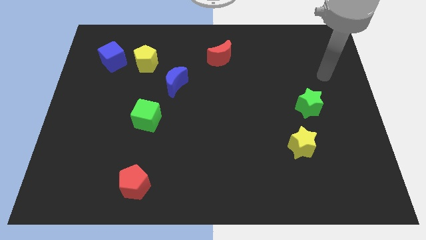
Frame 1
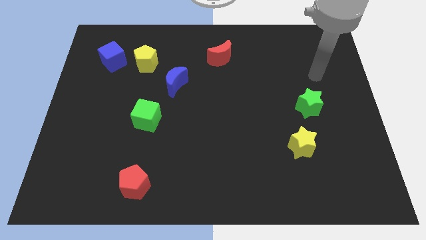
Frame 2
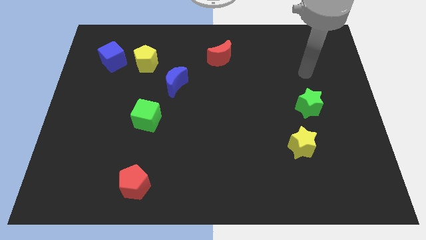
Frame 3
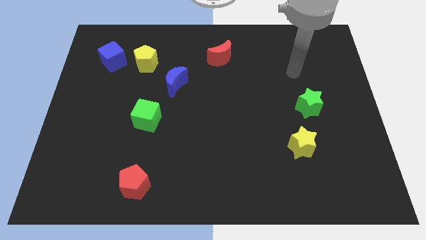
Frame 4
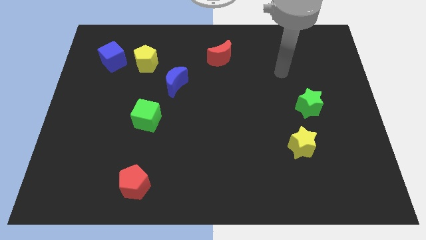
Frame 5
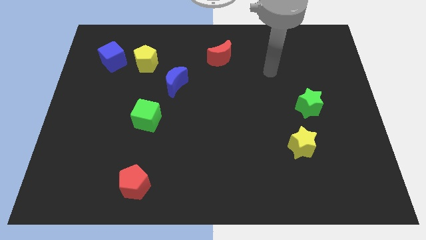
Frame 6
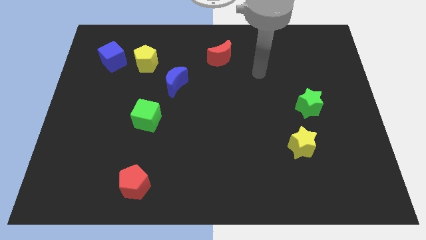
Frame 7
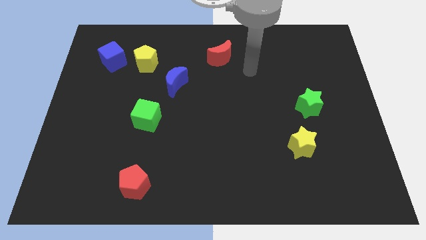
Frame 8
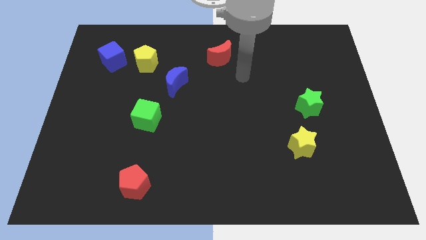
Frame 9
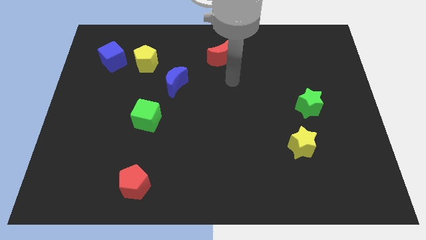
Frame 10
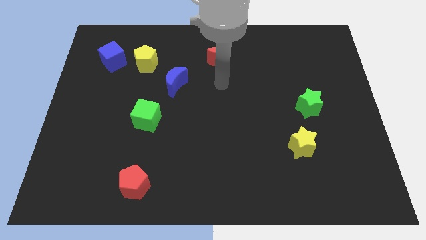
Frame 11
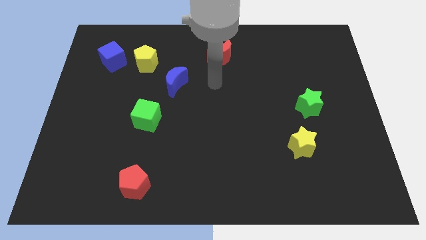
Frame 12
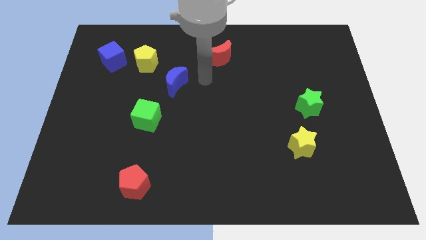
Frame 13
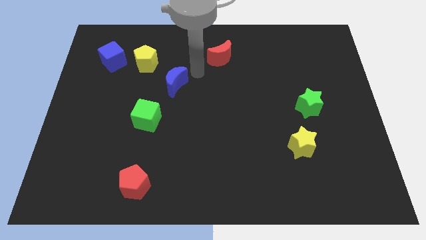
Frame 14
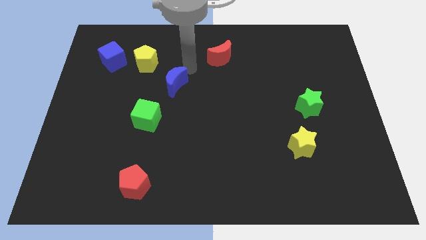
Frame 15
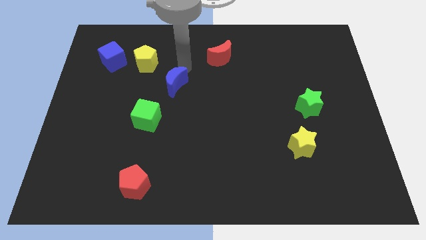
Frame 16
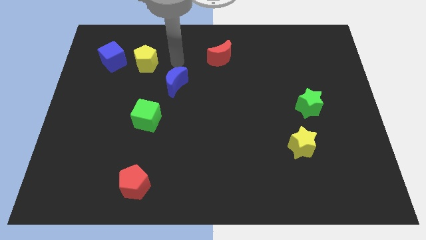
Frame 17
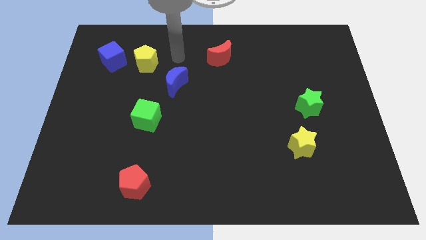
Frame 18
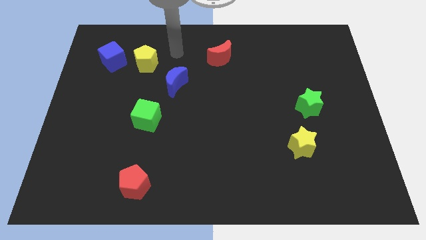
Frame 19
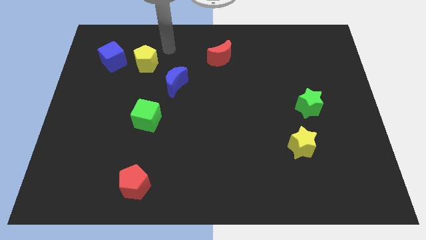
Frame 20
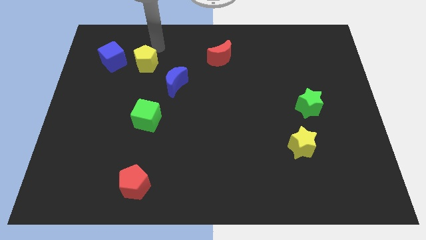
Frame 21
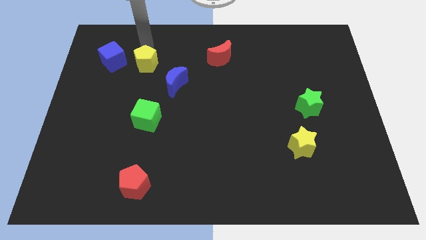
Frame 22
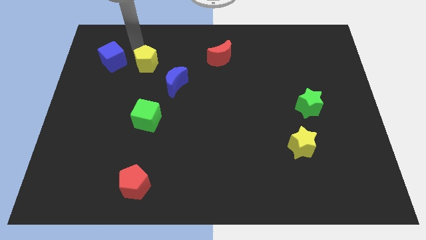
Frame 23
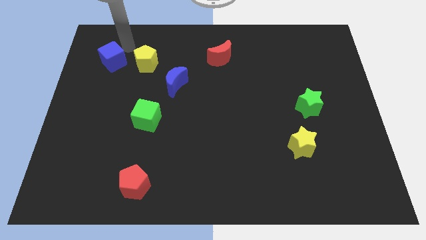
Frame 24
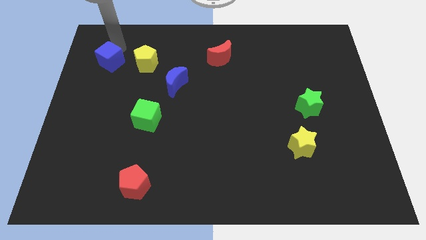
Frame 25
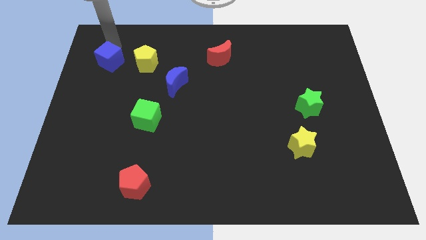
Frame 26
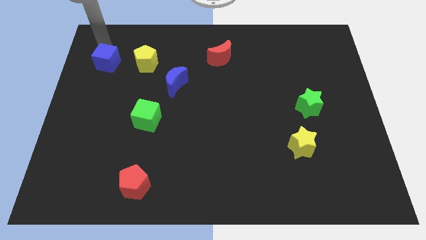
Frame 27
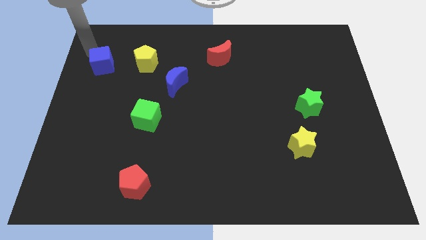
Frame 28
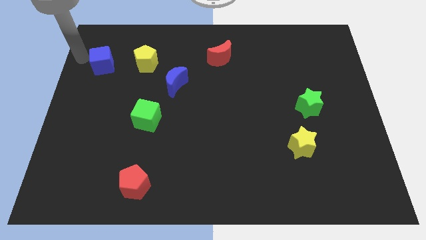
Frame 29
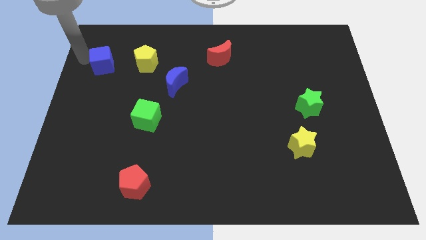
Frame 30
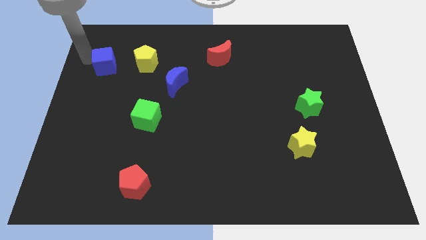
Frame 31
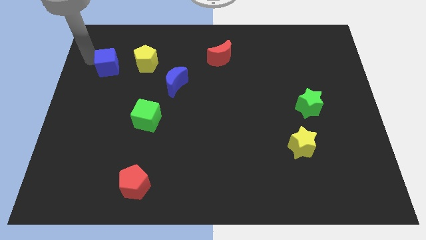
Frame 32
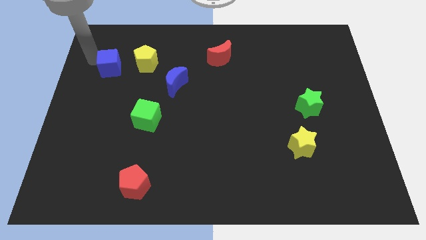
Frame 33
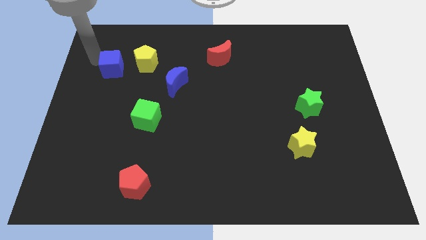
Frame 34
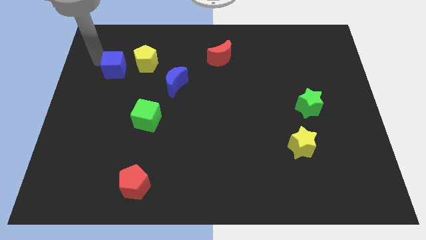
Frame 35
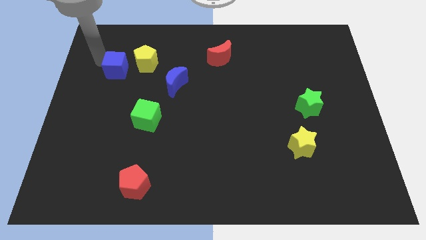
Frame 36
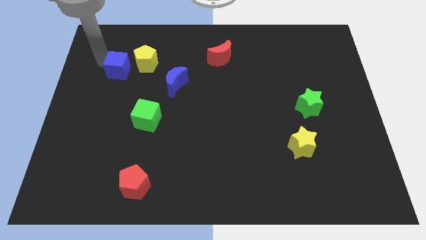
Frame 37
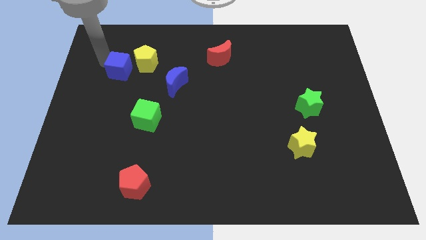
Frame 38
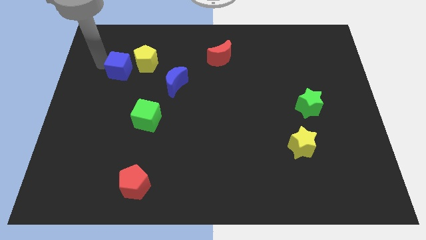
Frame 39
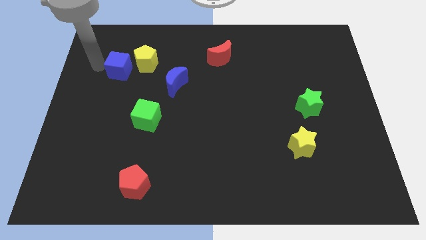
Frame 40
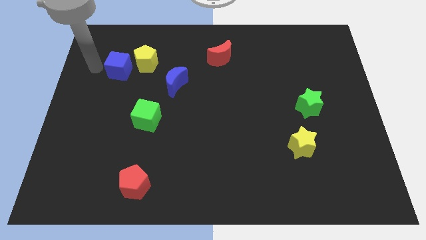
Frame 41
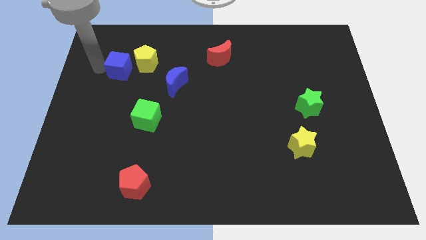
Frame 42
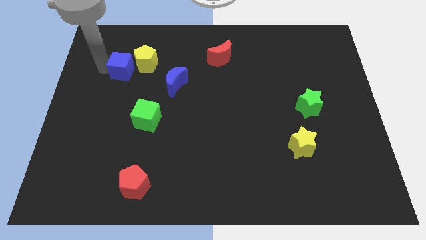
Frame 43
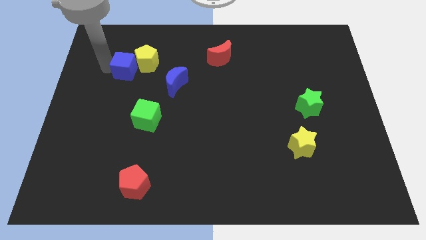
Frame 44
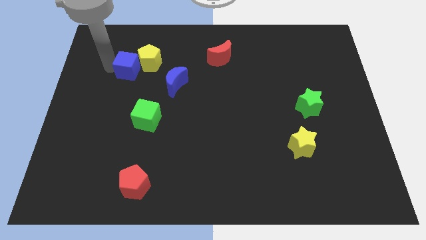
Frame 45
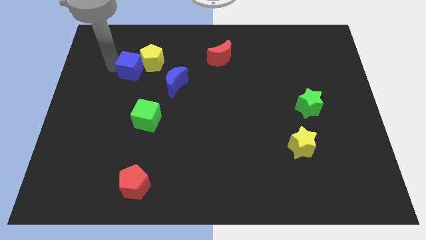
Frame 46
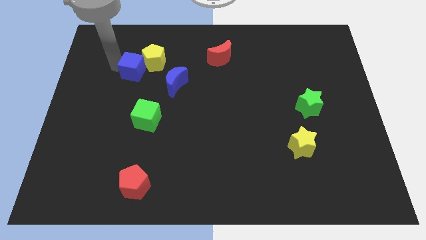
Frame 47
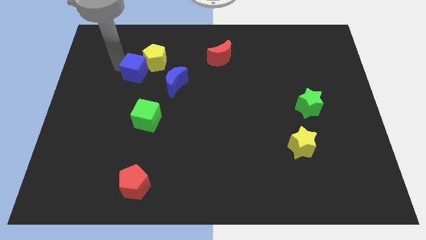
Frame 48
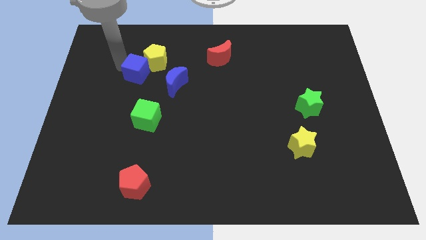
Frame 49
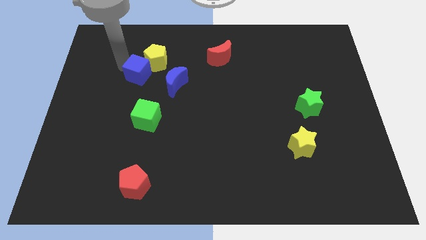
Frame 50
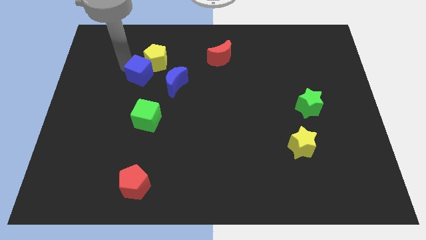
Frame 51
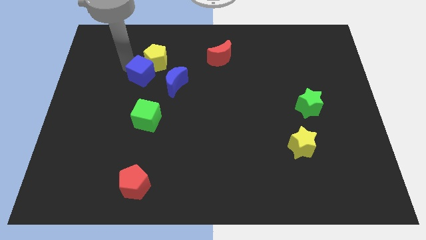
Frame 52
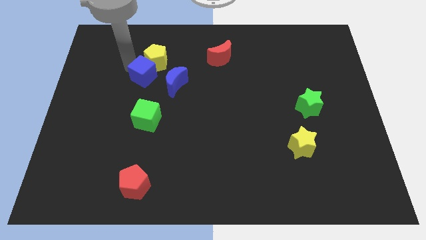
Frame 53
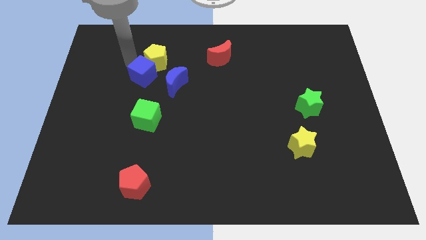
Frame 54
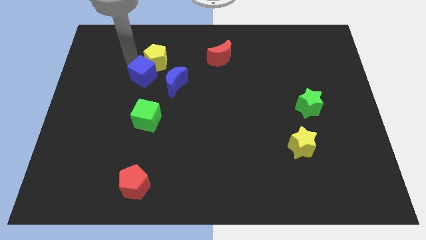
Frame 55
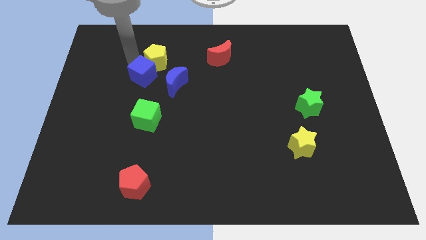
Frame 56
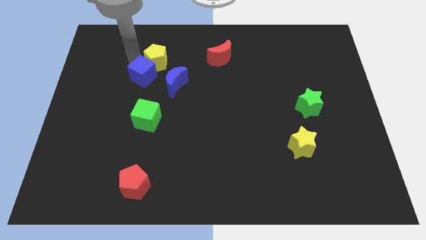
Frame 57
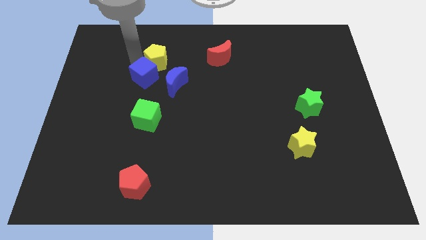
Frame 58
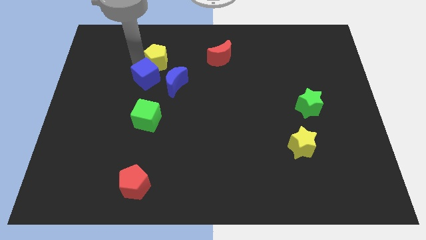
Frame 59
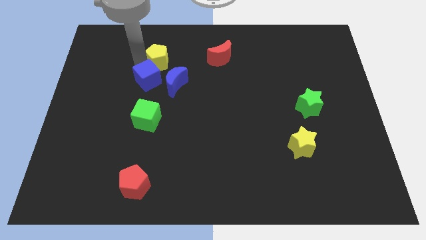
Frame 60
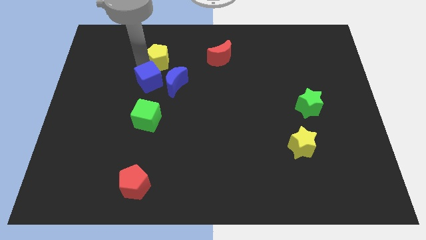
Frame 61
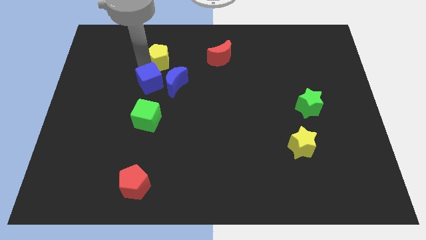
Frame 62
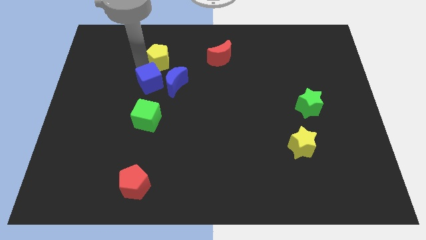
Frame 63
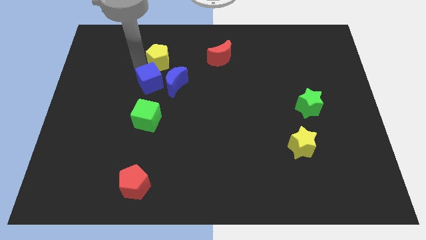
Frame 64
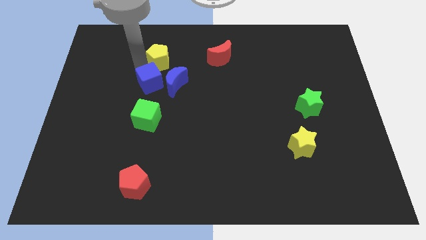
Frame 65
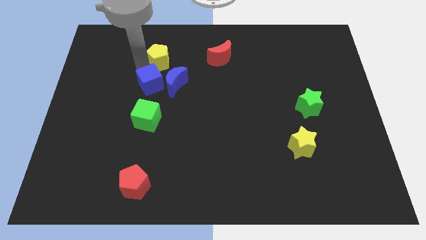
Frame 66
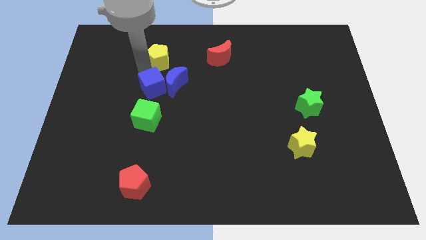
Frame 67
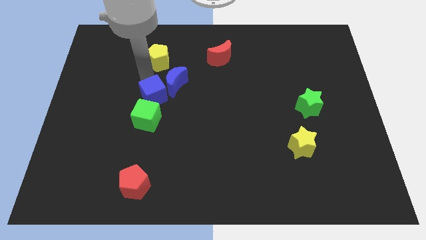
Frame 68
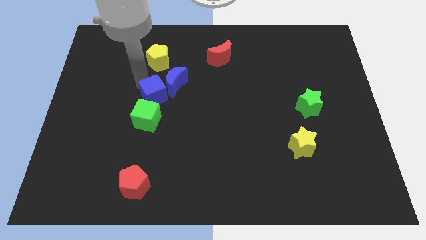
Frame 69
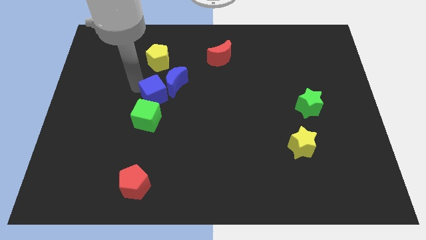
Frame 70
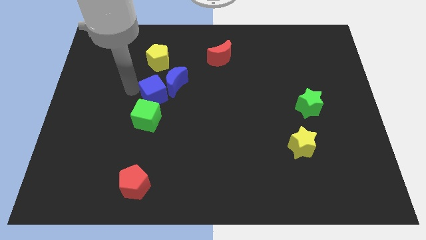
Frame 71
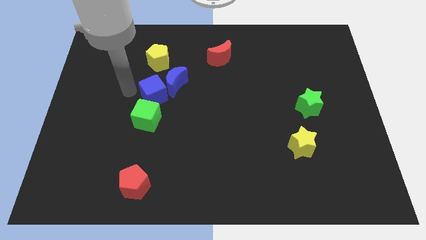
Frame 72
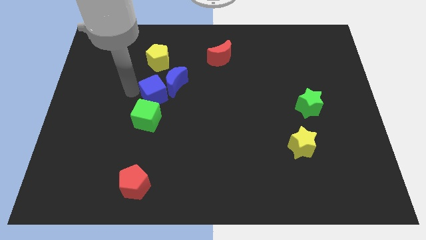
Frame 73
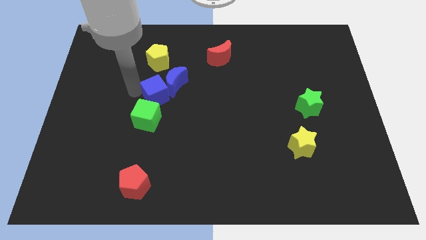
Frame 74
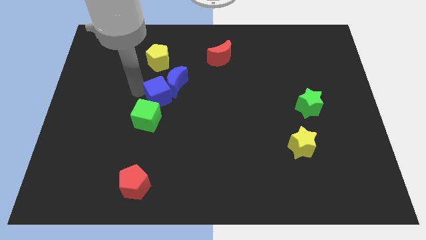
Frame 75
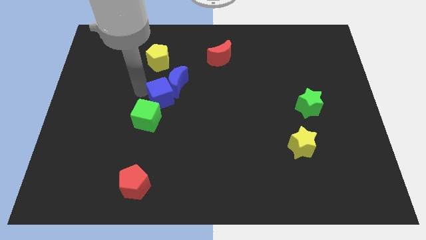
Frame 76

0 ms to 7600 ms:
slide the blue cube to the middle
